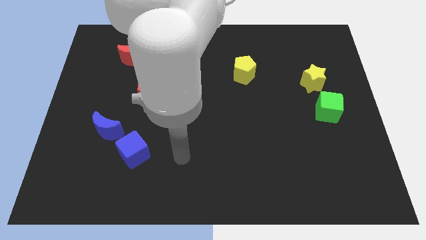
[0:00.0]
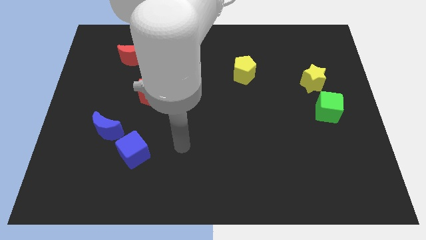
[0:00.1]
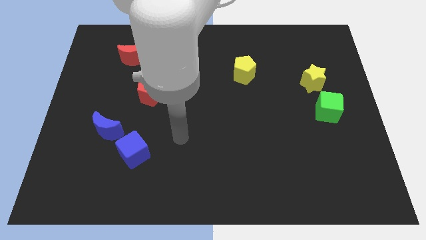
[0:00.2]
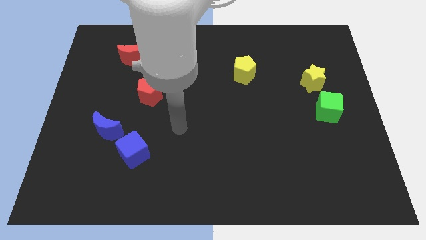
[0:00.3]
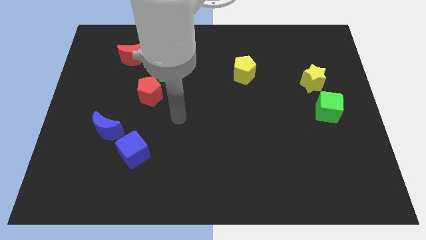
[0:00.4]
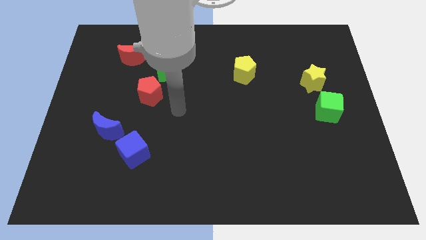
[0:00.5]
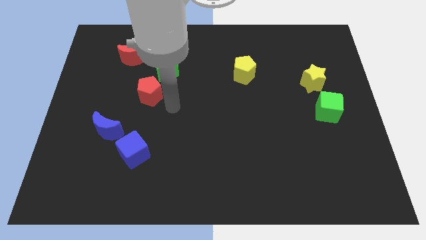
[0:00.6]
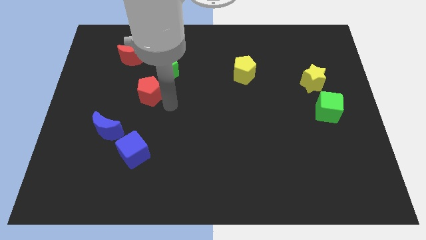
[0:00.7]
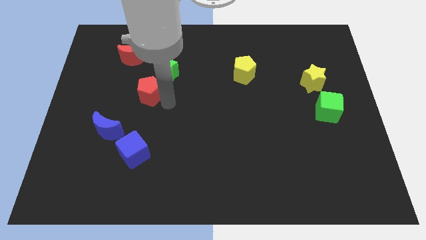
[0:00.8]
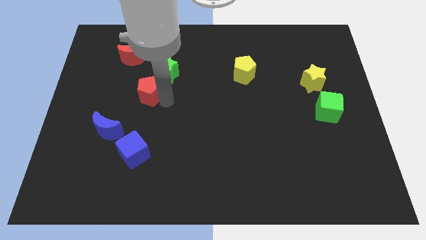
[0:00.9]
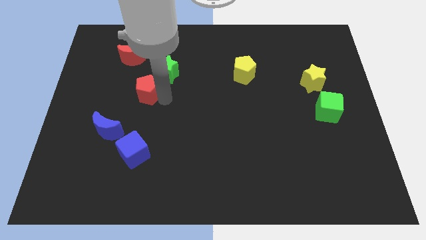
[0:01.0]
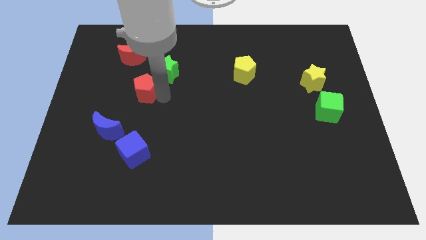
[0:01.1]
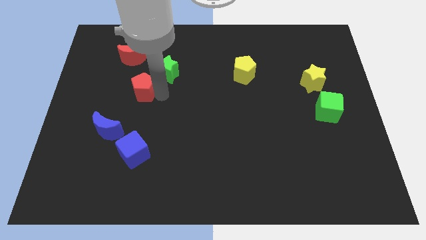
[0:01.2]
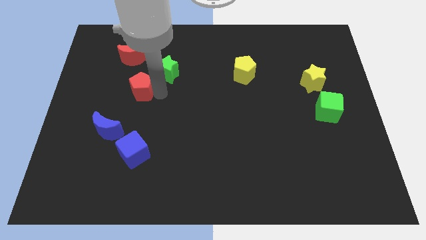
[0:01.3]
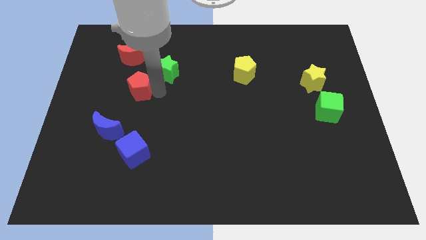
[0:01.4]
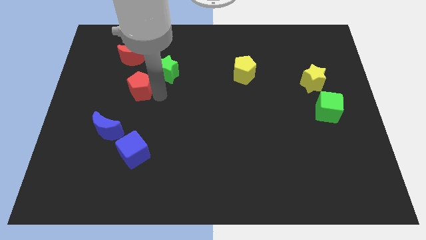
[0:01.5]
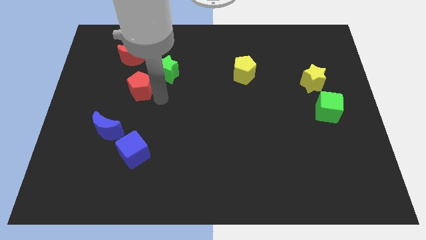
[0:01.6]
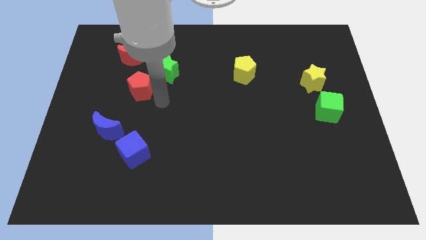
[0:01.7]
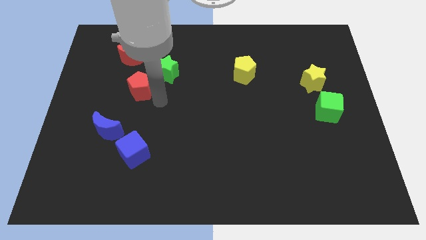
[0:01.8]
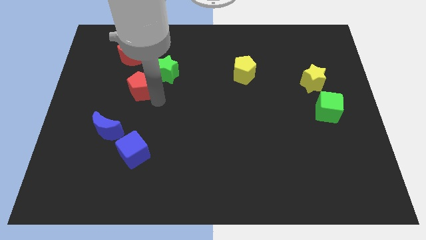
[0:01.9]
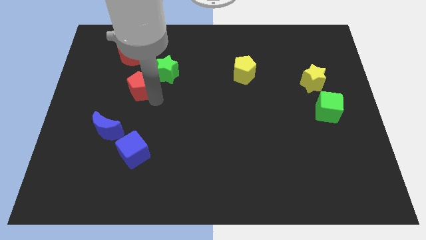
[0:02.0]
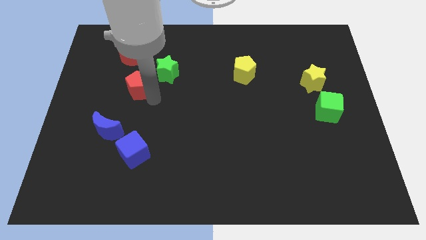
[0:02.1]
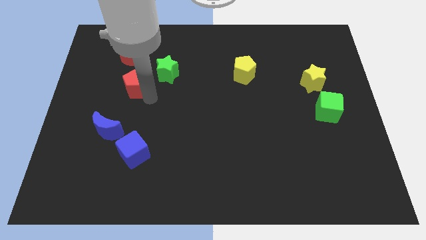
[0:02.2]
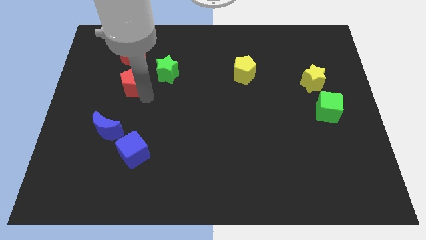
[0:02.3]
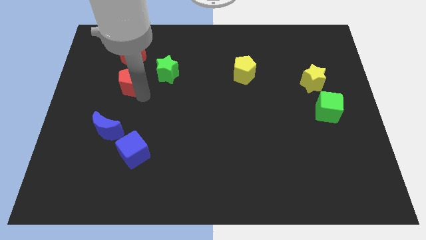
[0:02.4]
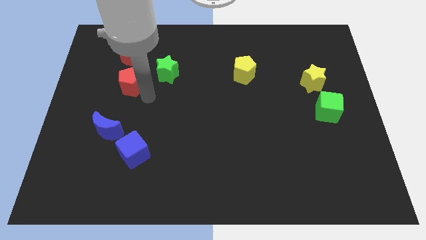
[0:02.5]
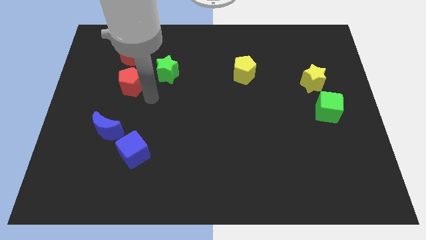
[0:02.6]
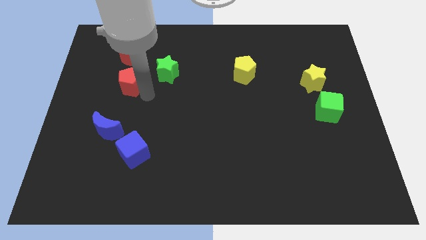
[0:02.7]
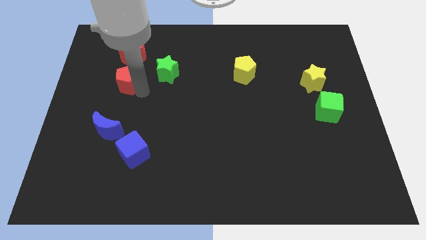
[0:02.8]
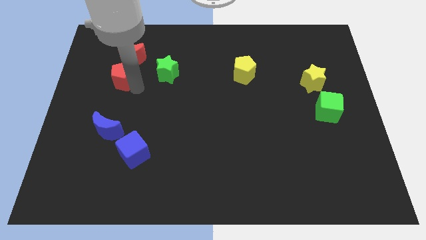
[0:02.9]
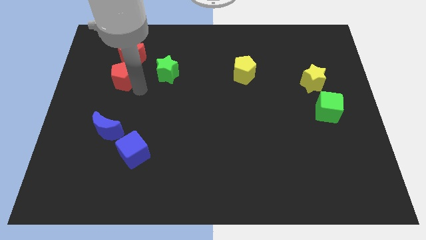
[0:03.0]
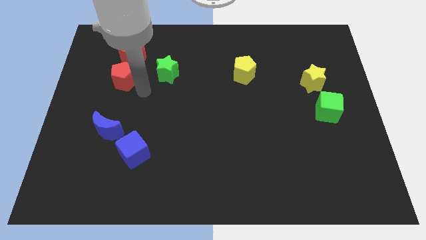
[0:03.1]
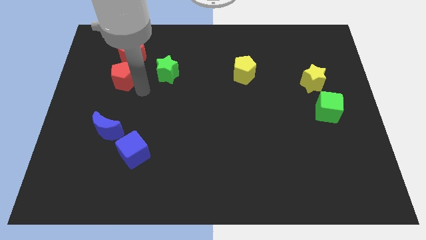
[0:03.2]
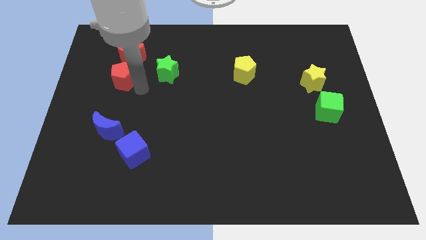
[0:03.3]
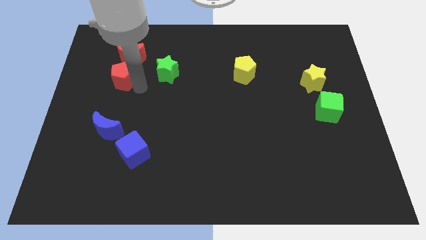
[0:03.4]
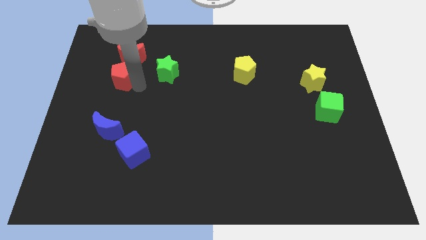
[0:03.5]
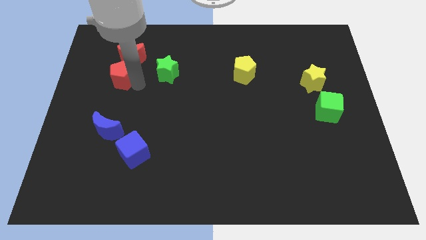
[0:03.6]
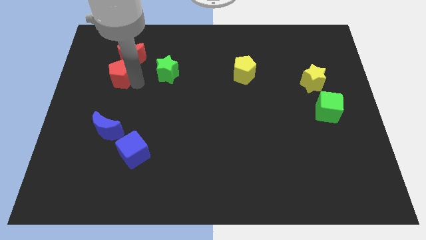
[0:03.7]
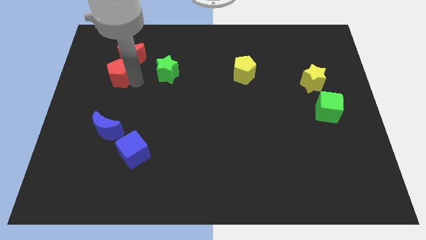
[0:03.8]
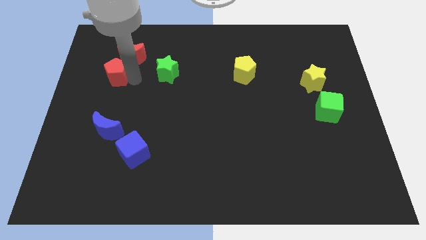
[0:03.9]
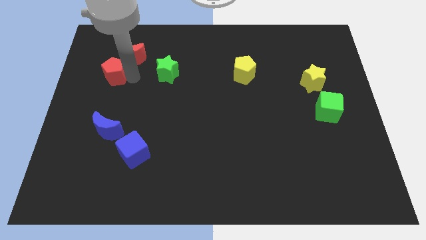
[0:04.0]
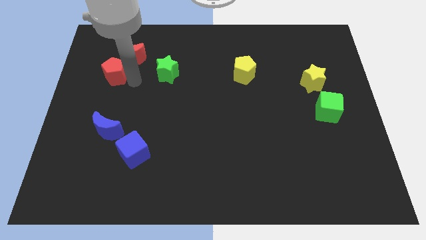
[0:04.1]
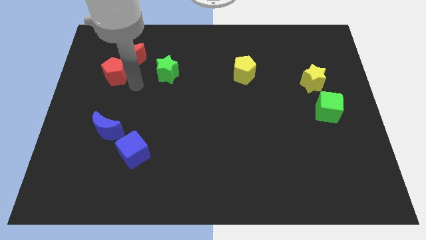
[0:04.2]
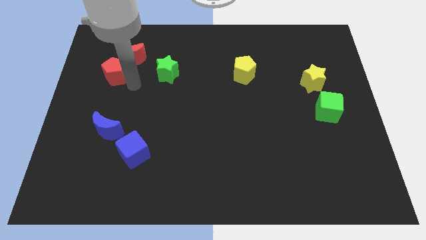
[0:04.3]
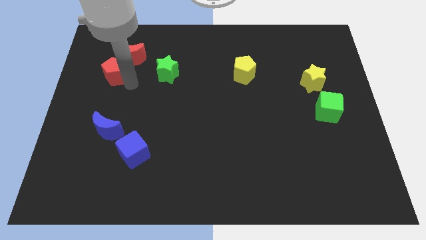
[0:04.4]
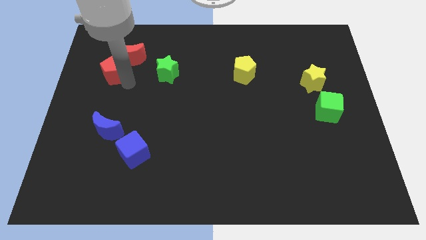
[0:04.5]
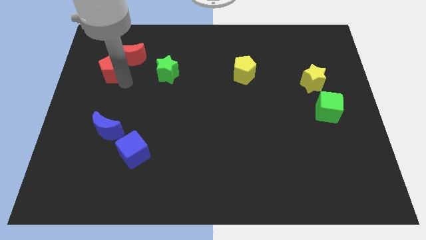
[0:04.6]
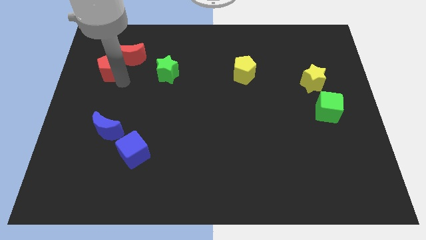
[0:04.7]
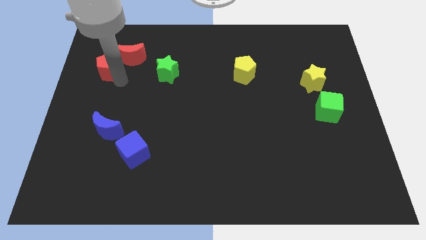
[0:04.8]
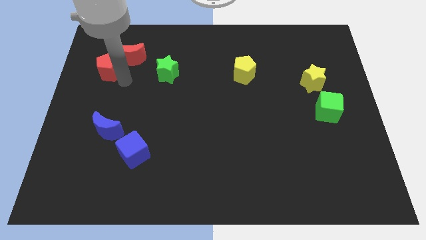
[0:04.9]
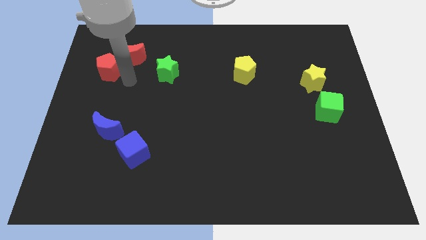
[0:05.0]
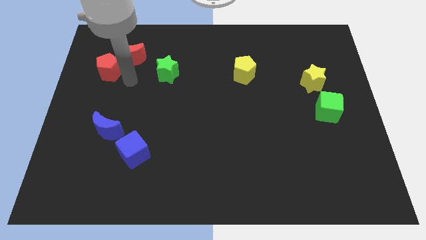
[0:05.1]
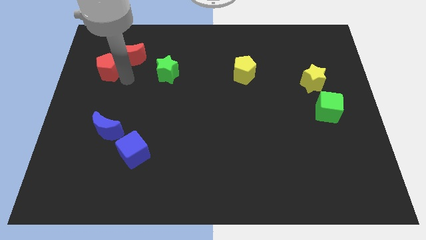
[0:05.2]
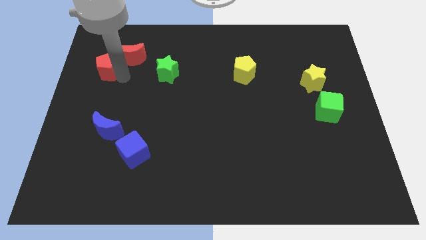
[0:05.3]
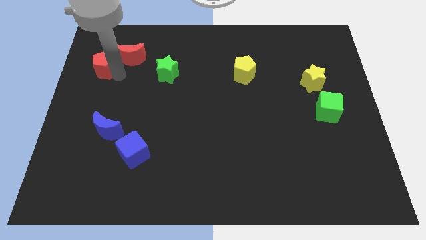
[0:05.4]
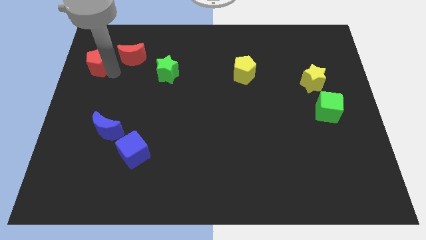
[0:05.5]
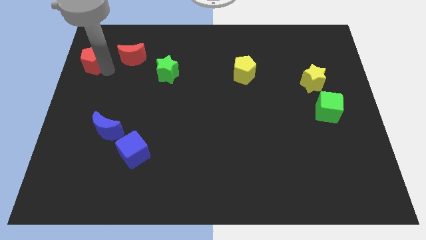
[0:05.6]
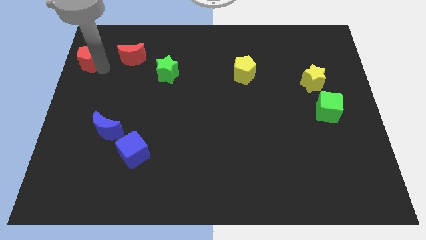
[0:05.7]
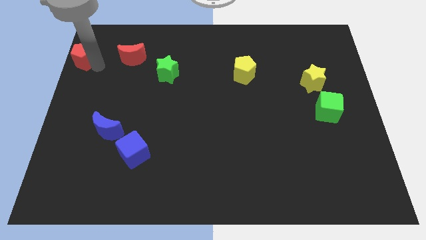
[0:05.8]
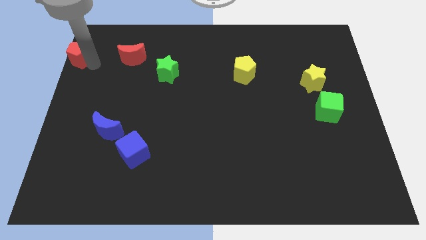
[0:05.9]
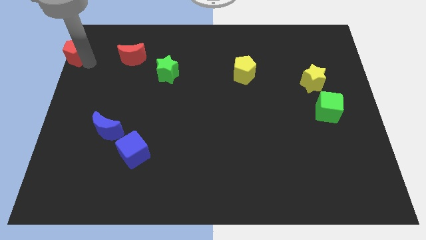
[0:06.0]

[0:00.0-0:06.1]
put the red pentagon to the top left of the board

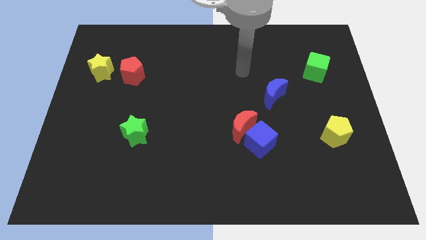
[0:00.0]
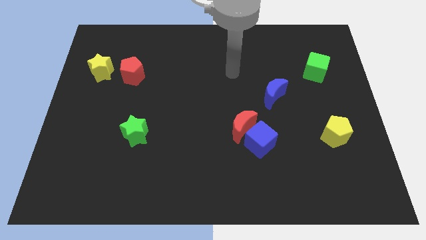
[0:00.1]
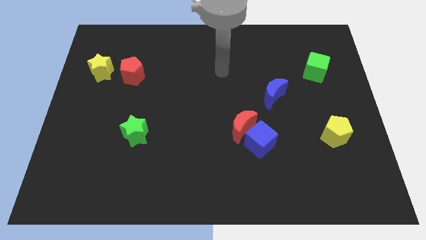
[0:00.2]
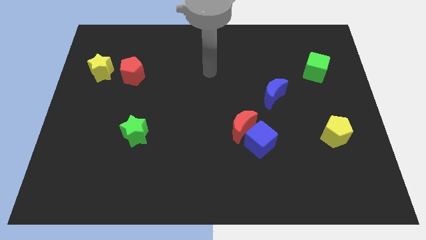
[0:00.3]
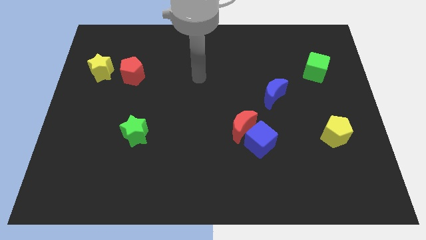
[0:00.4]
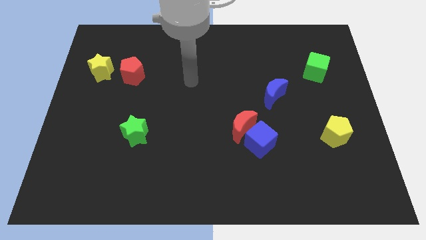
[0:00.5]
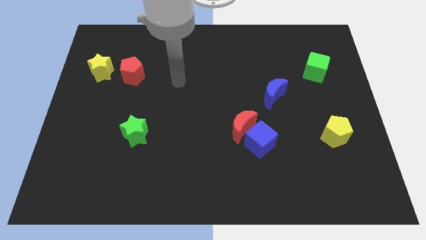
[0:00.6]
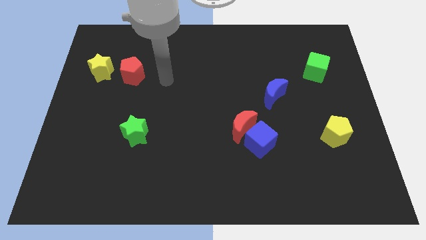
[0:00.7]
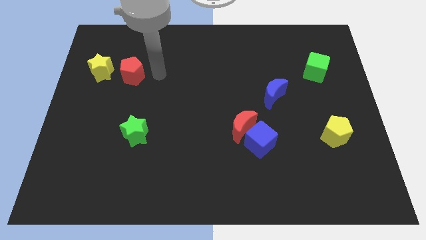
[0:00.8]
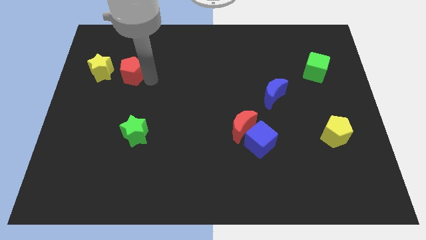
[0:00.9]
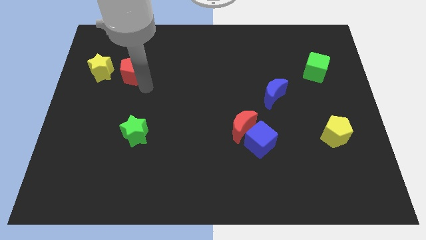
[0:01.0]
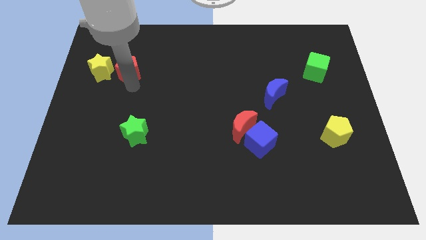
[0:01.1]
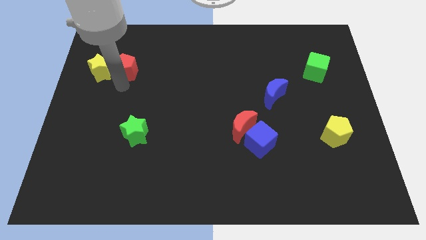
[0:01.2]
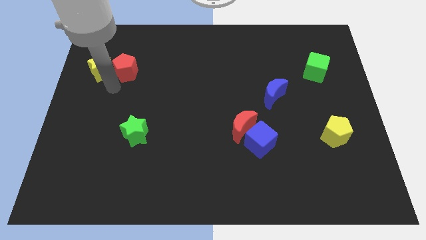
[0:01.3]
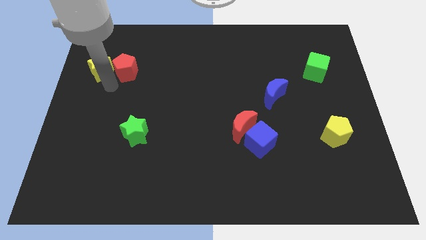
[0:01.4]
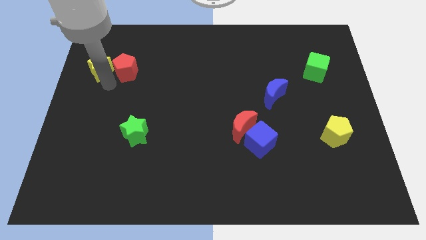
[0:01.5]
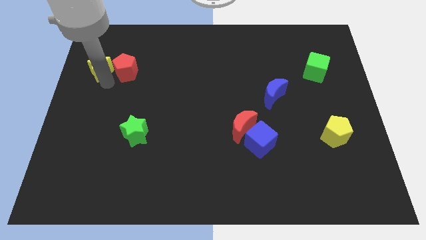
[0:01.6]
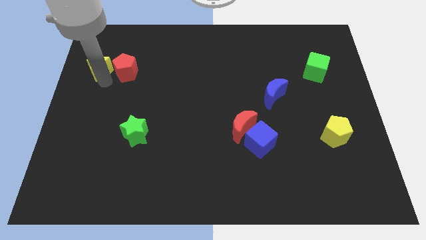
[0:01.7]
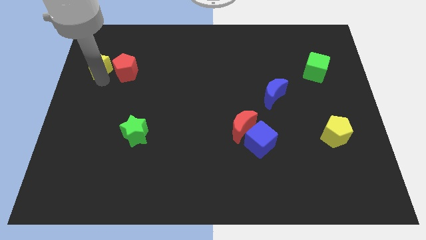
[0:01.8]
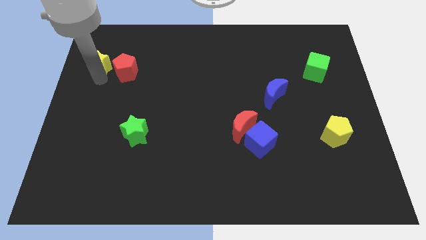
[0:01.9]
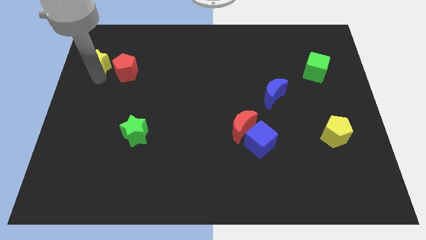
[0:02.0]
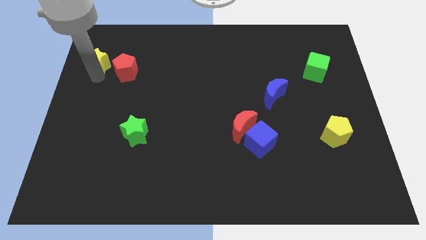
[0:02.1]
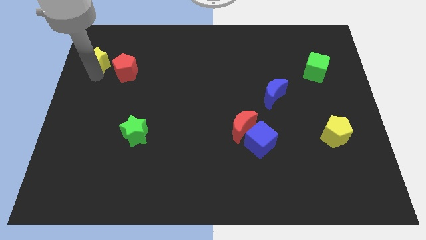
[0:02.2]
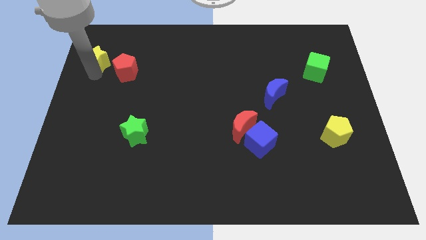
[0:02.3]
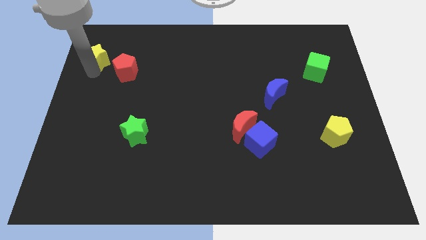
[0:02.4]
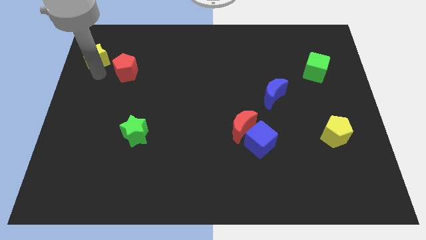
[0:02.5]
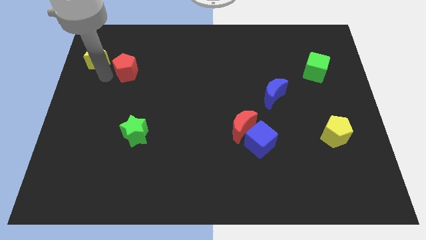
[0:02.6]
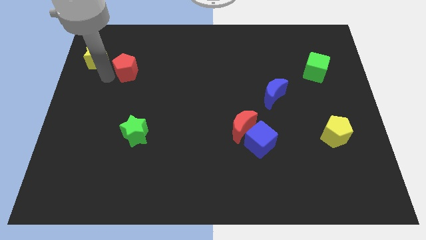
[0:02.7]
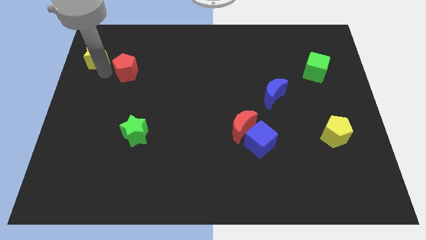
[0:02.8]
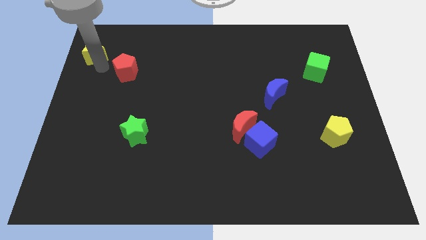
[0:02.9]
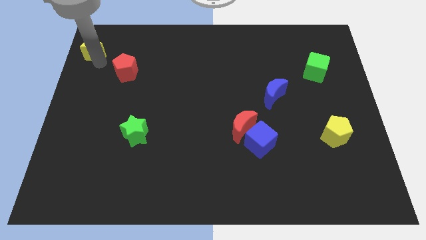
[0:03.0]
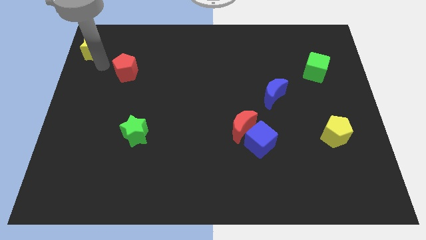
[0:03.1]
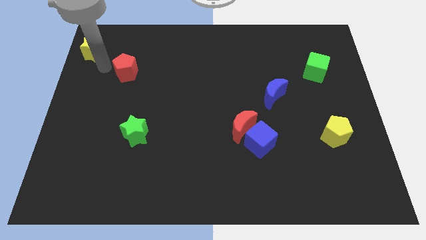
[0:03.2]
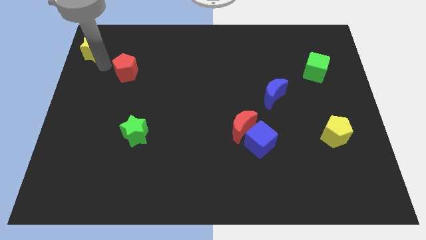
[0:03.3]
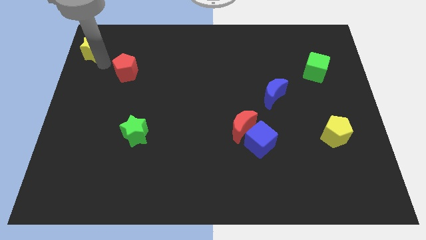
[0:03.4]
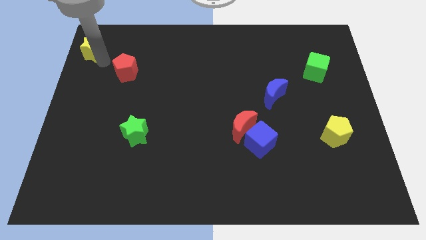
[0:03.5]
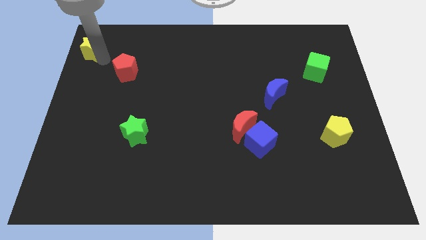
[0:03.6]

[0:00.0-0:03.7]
push the yellow star to the top left corner
